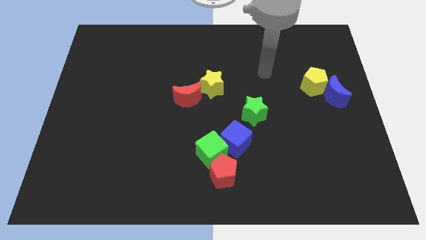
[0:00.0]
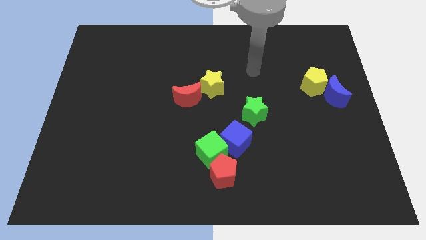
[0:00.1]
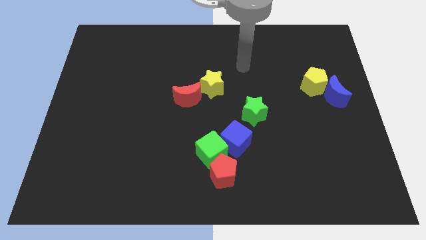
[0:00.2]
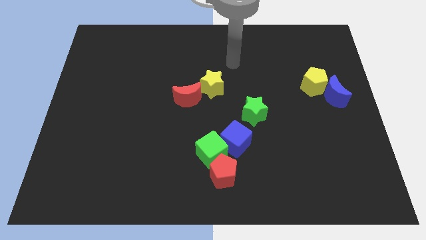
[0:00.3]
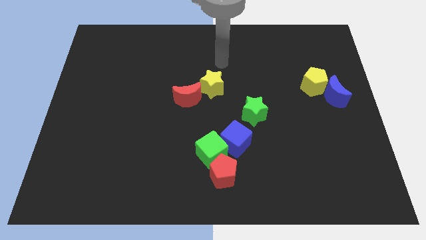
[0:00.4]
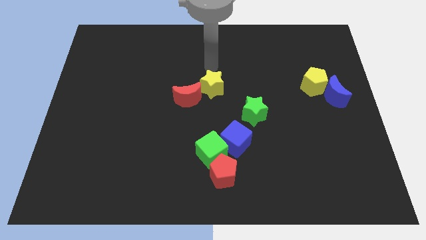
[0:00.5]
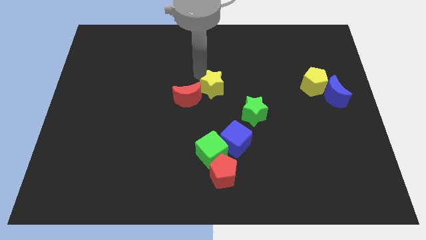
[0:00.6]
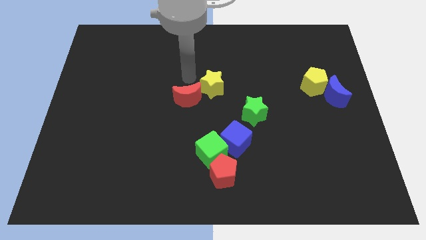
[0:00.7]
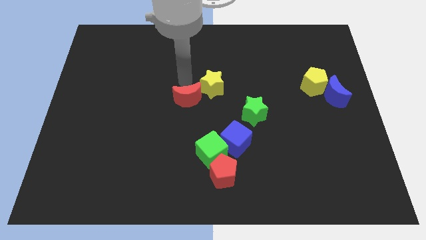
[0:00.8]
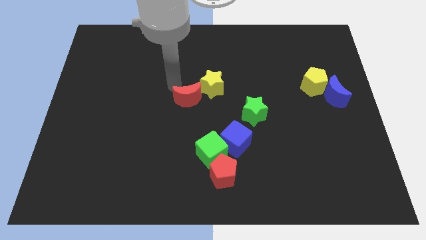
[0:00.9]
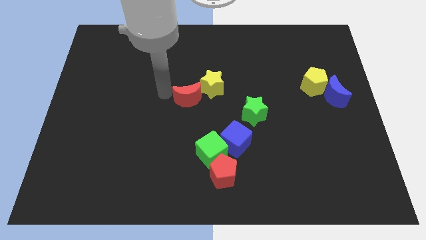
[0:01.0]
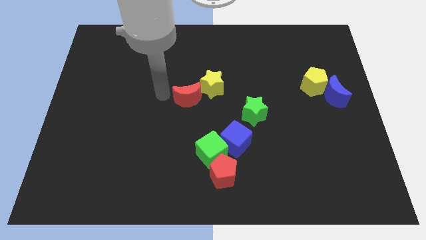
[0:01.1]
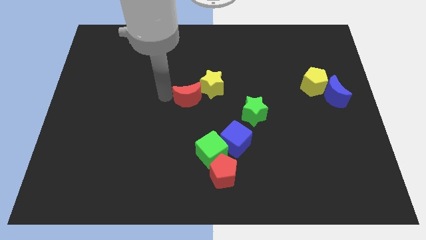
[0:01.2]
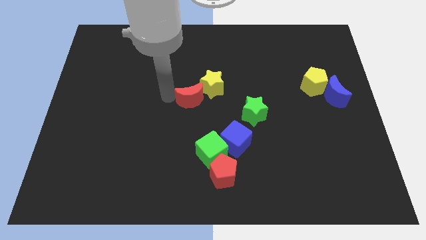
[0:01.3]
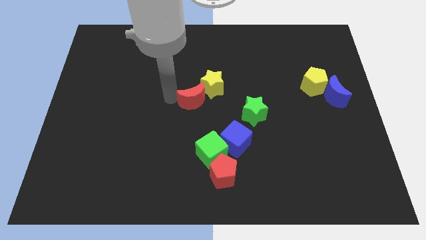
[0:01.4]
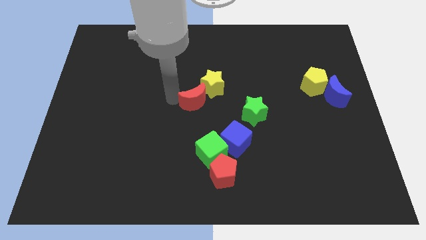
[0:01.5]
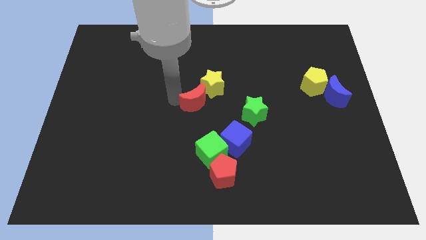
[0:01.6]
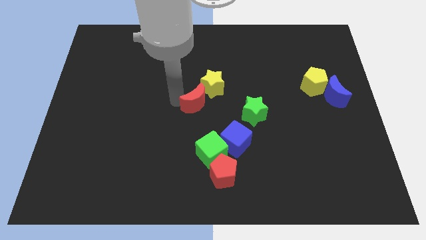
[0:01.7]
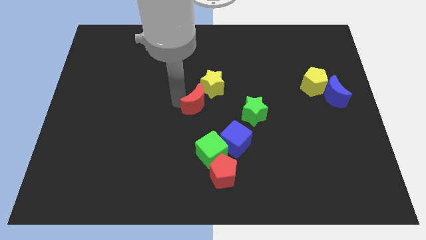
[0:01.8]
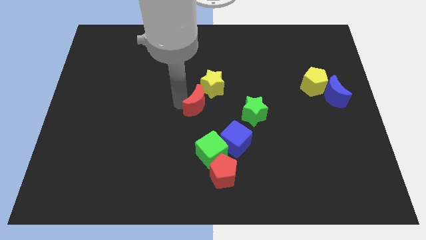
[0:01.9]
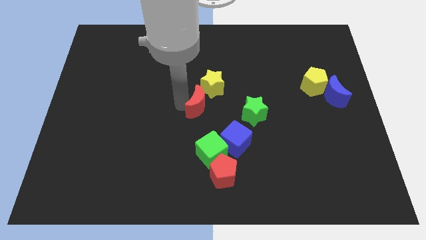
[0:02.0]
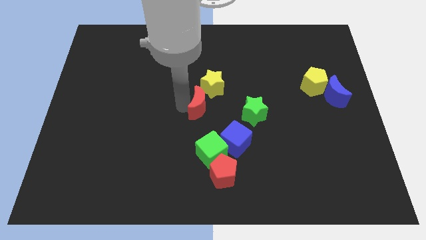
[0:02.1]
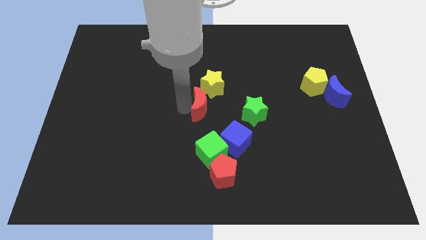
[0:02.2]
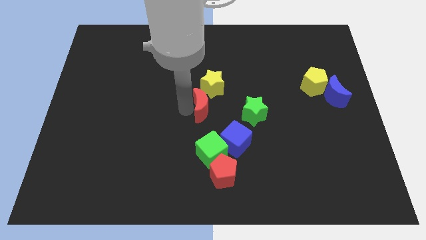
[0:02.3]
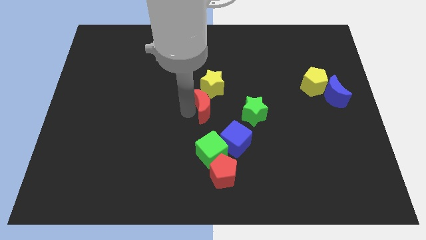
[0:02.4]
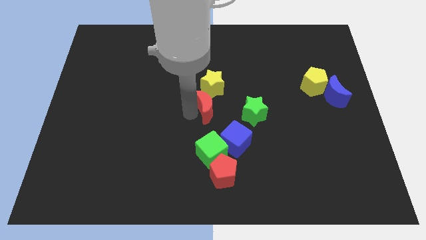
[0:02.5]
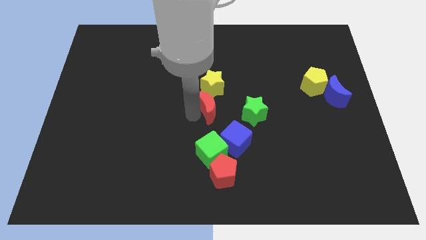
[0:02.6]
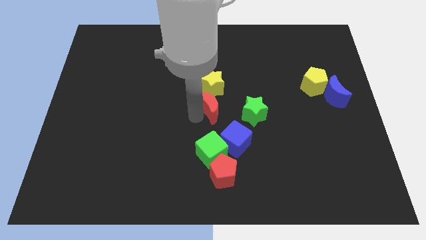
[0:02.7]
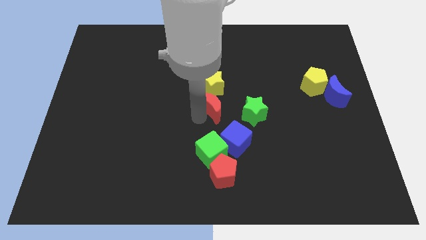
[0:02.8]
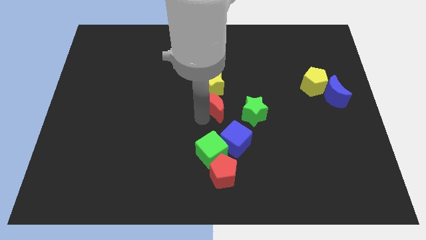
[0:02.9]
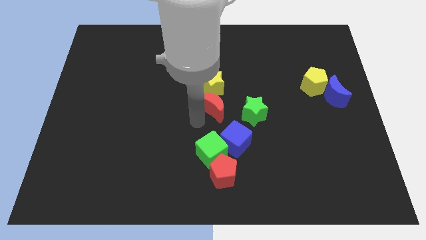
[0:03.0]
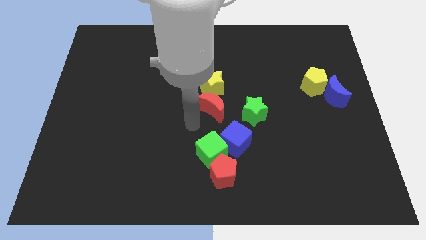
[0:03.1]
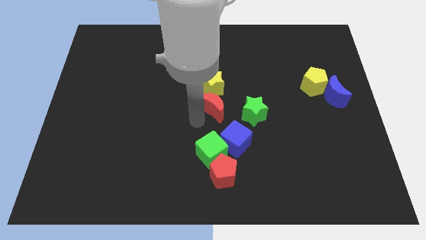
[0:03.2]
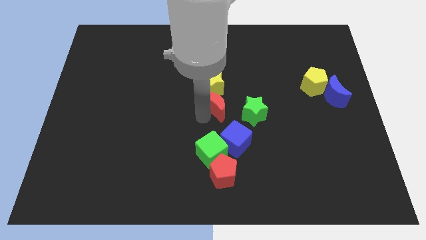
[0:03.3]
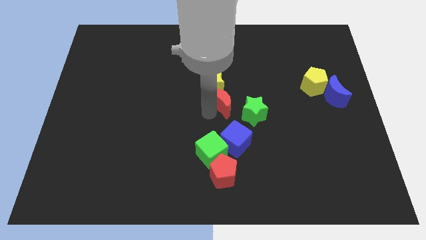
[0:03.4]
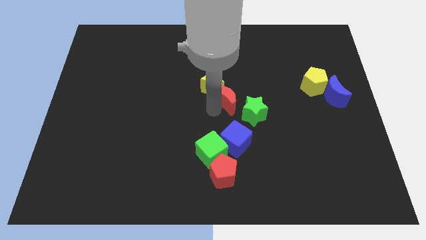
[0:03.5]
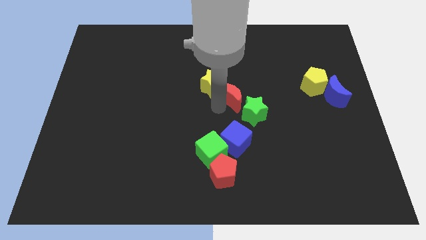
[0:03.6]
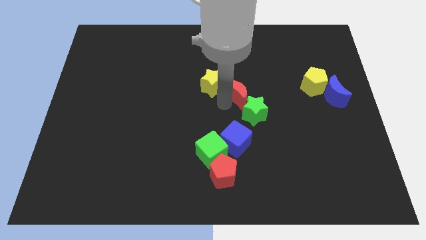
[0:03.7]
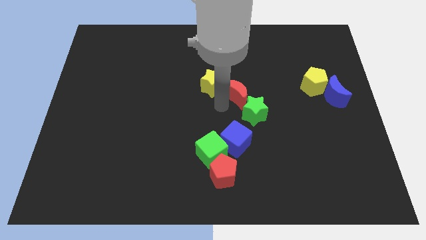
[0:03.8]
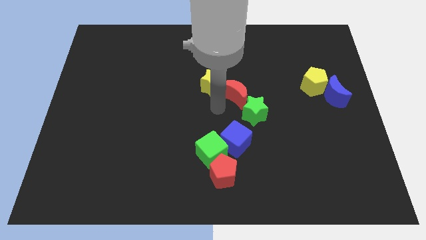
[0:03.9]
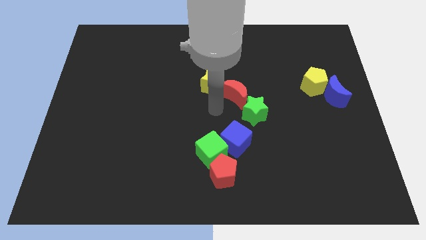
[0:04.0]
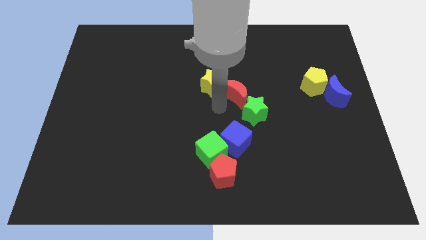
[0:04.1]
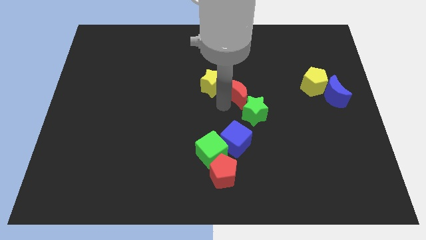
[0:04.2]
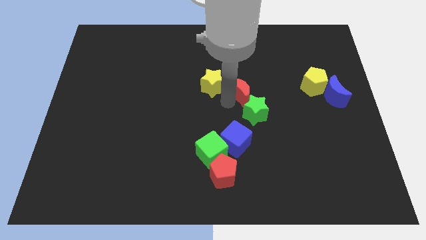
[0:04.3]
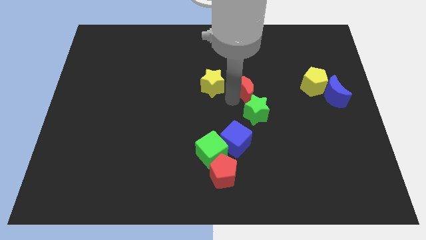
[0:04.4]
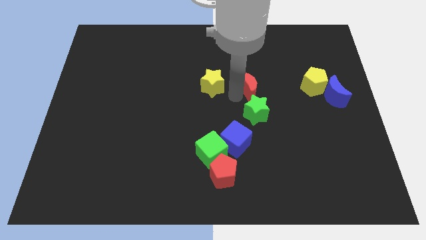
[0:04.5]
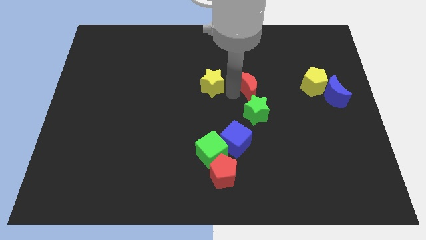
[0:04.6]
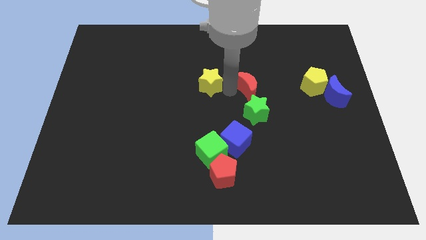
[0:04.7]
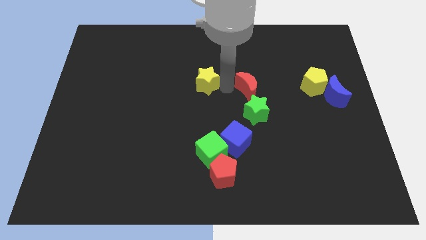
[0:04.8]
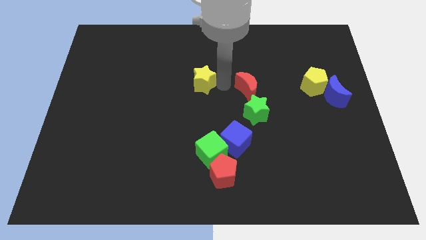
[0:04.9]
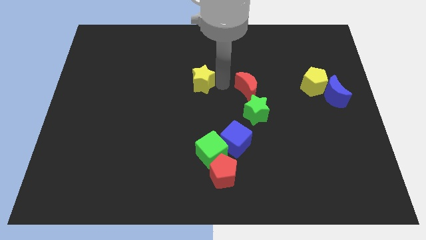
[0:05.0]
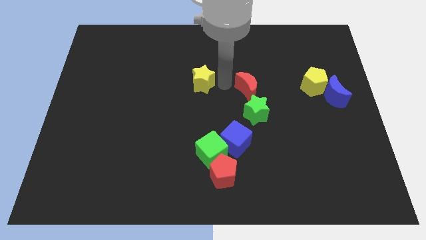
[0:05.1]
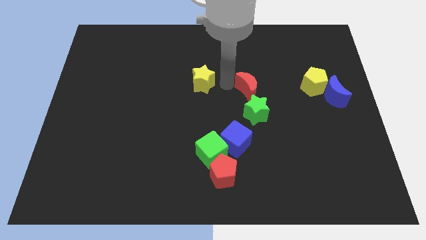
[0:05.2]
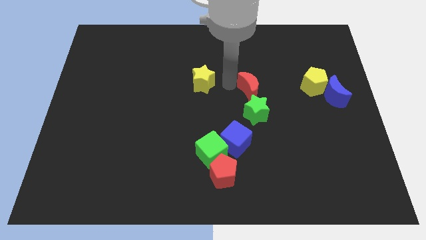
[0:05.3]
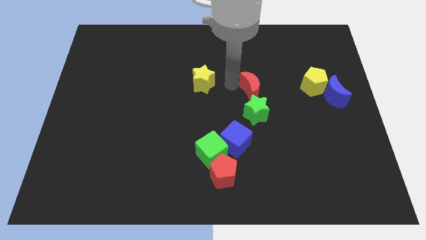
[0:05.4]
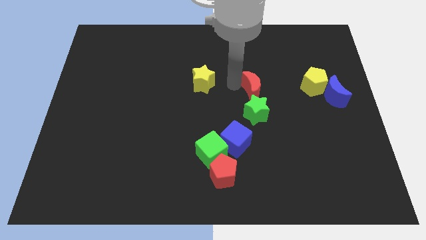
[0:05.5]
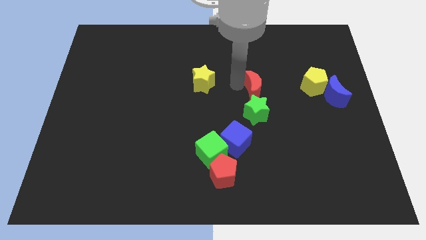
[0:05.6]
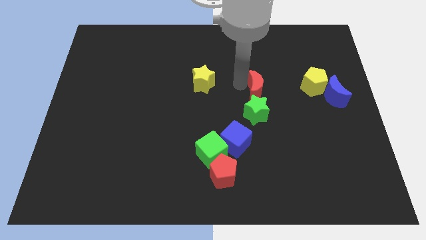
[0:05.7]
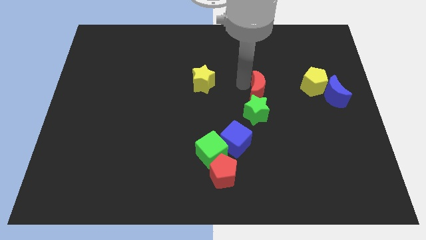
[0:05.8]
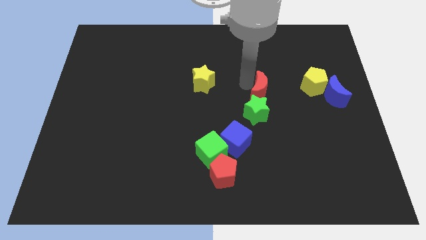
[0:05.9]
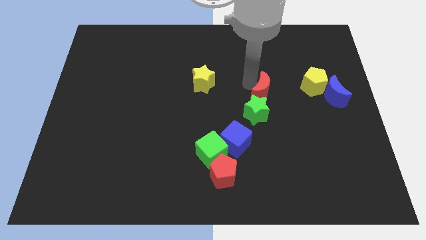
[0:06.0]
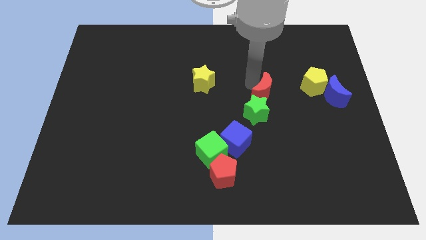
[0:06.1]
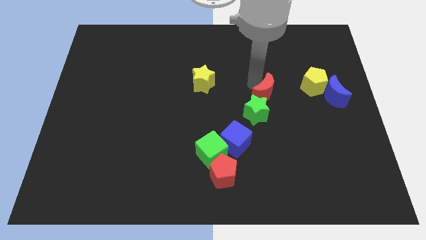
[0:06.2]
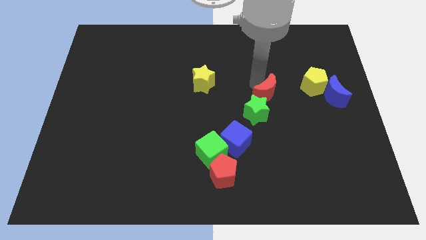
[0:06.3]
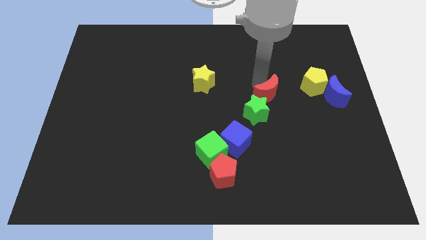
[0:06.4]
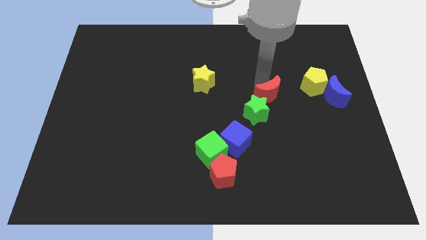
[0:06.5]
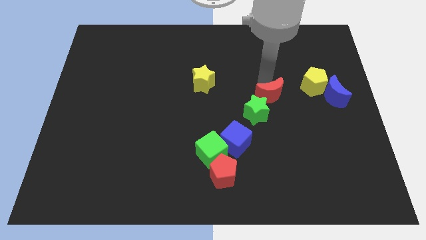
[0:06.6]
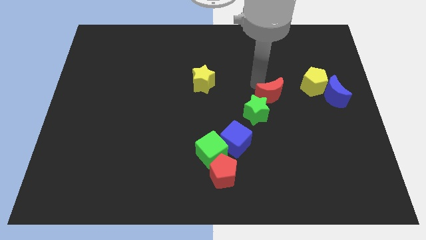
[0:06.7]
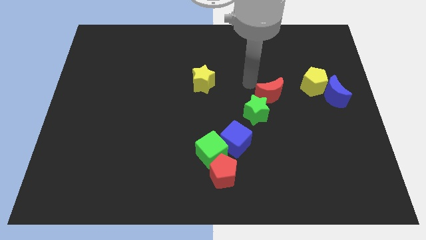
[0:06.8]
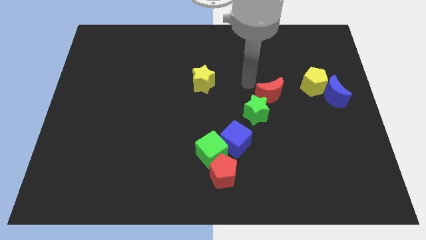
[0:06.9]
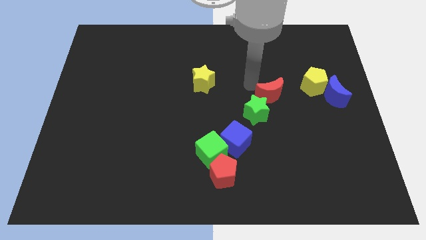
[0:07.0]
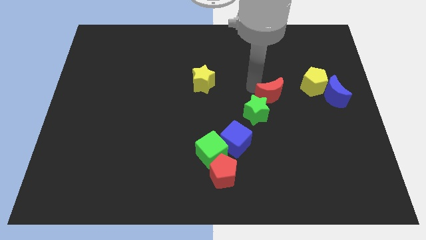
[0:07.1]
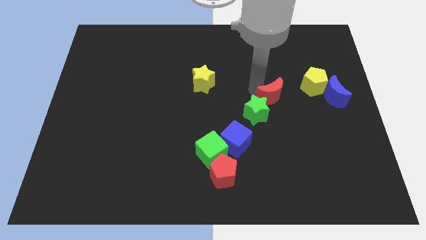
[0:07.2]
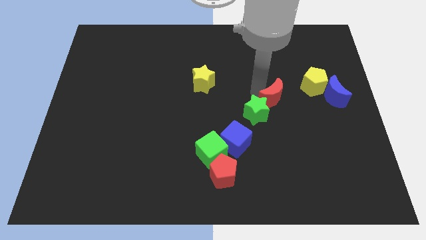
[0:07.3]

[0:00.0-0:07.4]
put the red moon to the right of the green star
